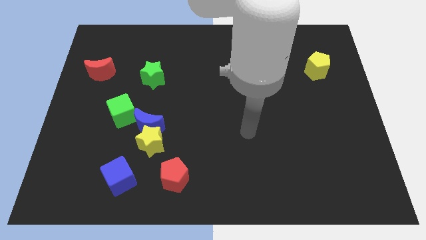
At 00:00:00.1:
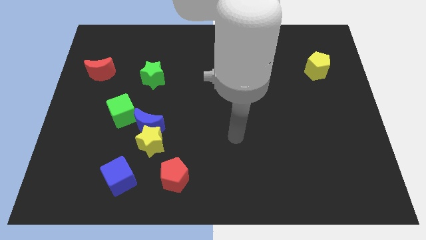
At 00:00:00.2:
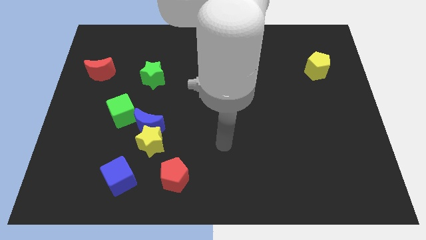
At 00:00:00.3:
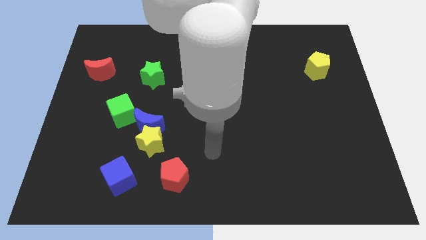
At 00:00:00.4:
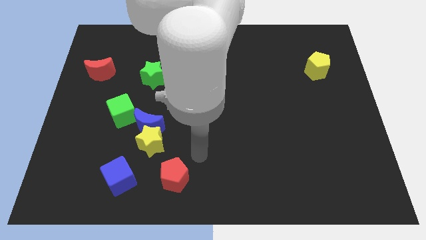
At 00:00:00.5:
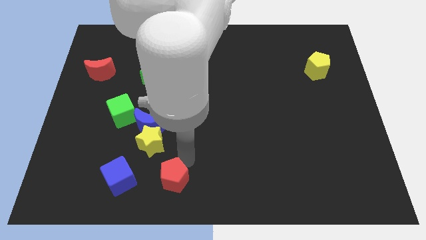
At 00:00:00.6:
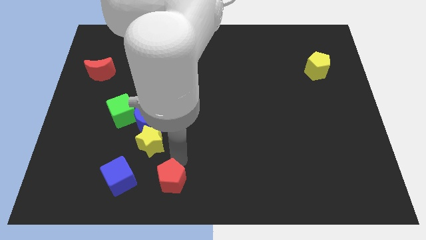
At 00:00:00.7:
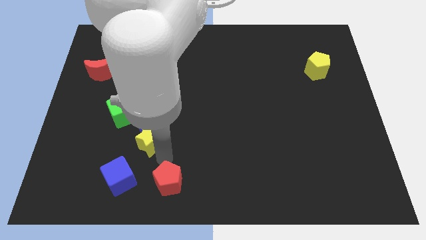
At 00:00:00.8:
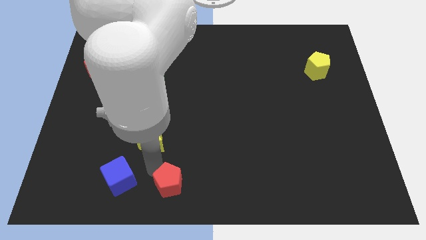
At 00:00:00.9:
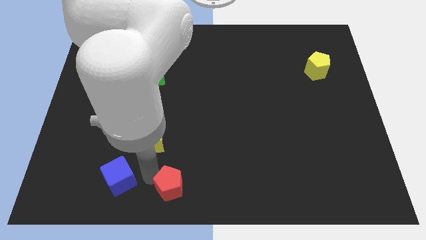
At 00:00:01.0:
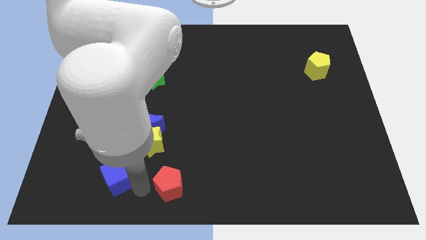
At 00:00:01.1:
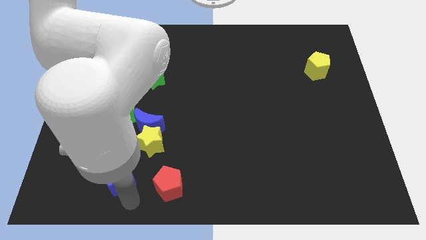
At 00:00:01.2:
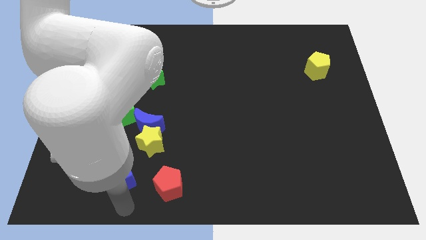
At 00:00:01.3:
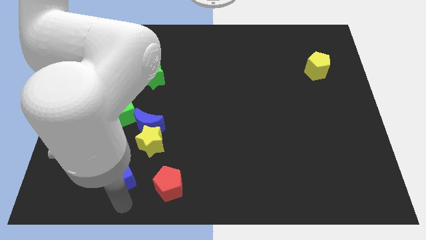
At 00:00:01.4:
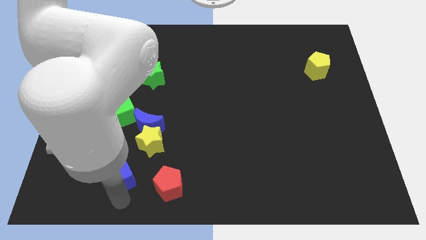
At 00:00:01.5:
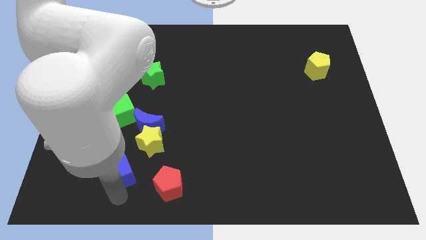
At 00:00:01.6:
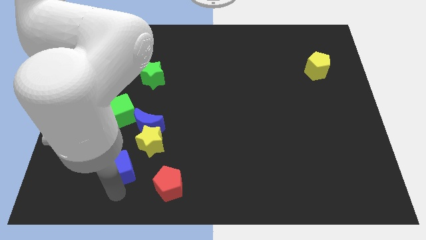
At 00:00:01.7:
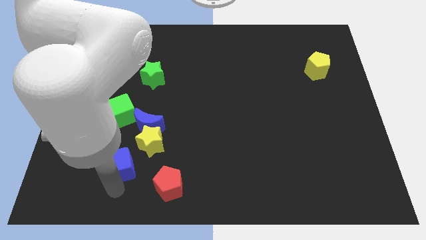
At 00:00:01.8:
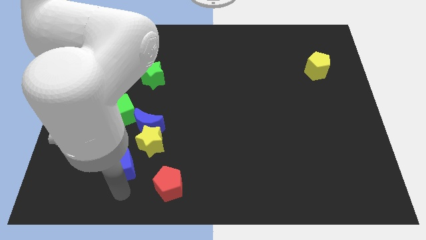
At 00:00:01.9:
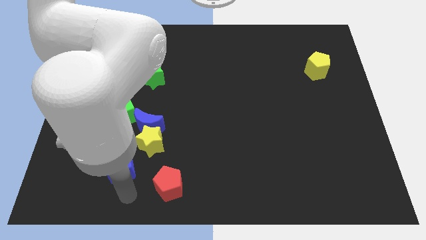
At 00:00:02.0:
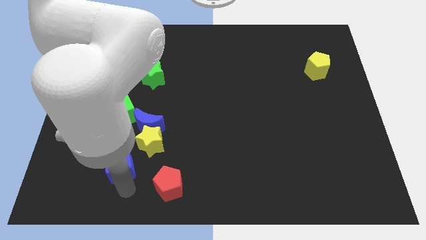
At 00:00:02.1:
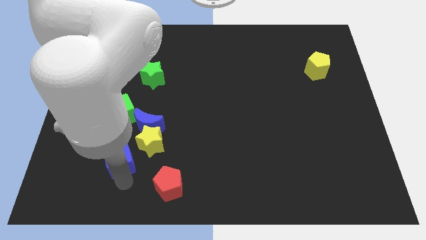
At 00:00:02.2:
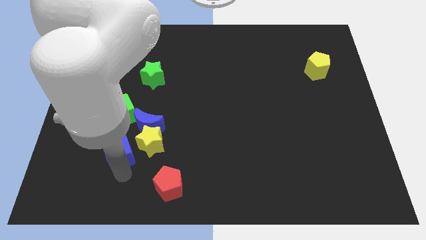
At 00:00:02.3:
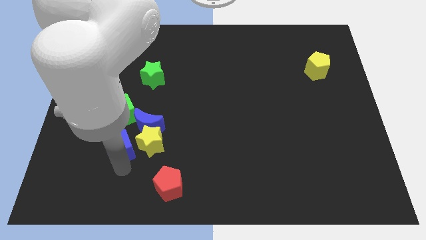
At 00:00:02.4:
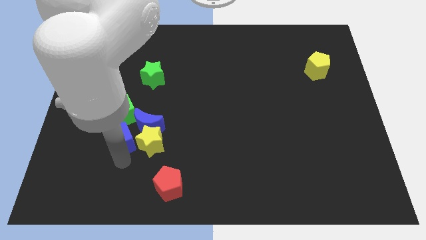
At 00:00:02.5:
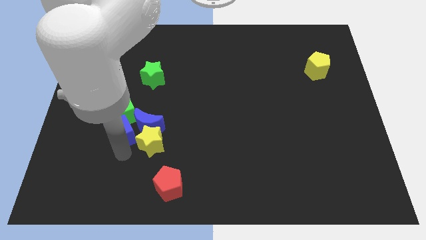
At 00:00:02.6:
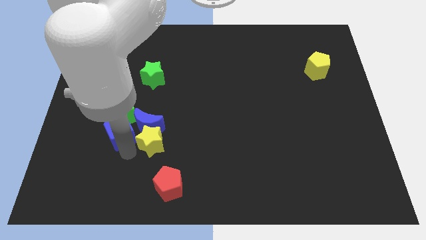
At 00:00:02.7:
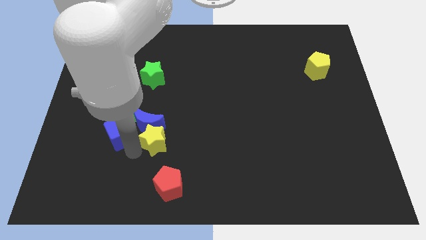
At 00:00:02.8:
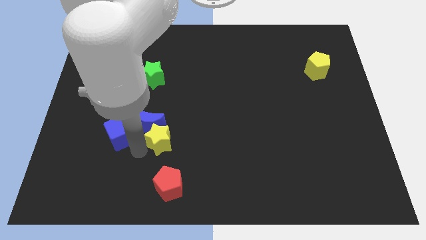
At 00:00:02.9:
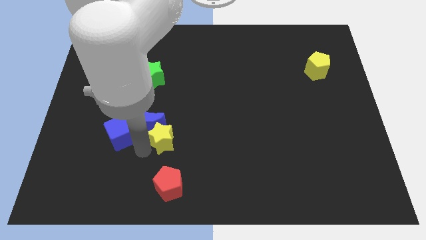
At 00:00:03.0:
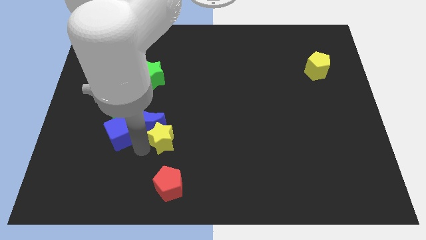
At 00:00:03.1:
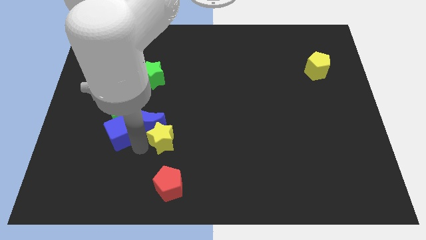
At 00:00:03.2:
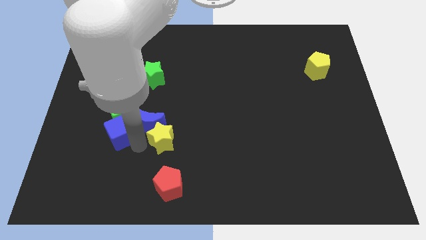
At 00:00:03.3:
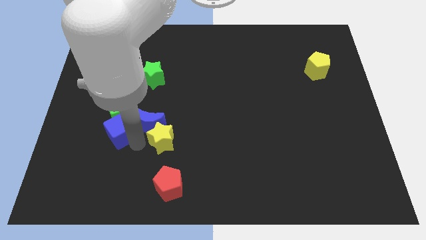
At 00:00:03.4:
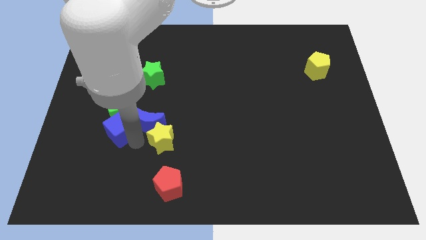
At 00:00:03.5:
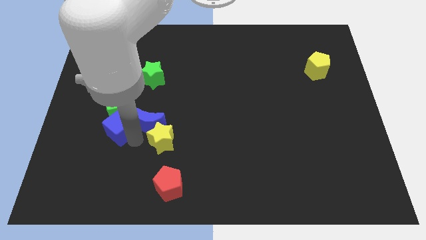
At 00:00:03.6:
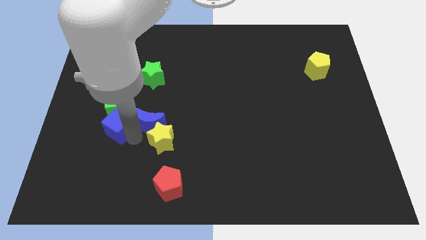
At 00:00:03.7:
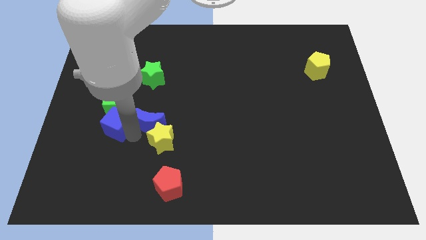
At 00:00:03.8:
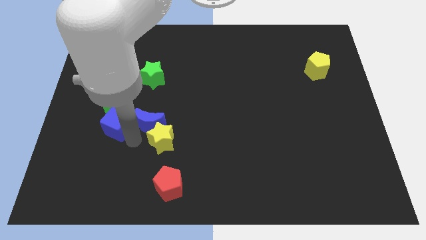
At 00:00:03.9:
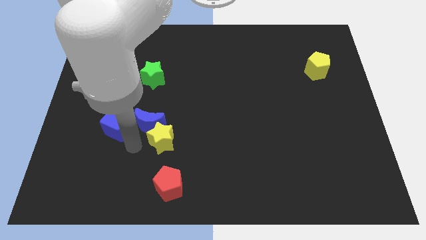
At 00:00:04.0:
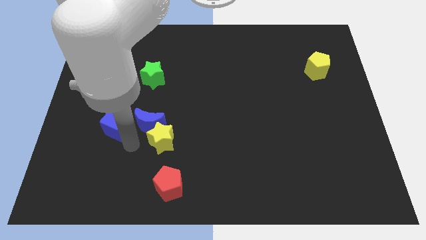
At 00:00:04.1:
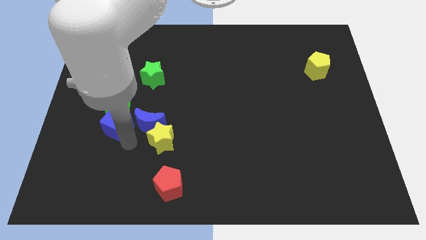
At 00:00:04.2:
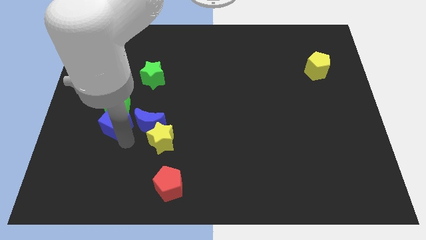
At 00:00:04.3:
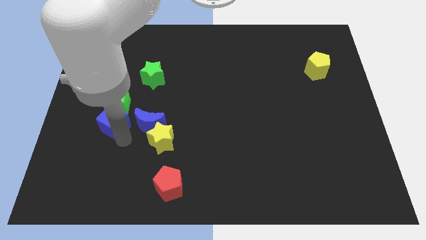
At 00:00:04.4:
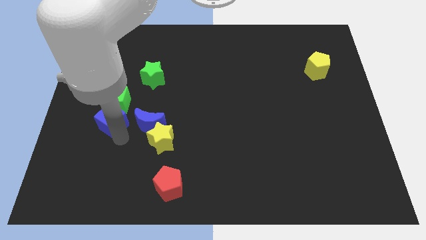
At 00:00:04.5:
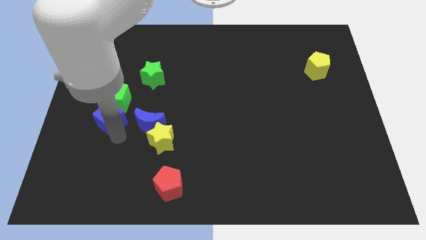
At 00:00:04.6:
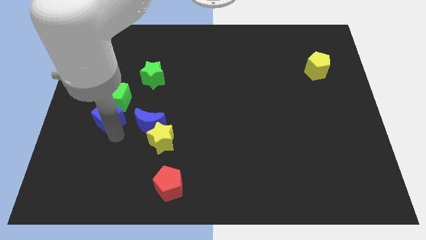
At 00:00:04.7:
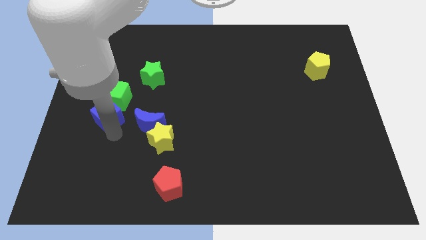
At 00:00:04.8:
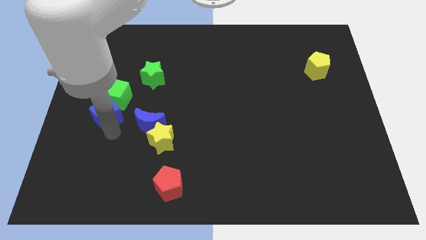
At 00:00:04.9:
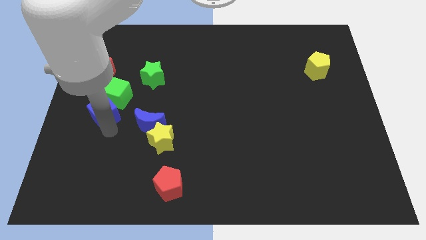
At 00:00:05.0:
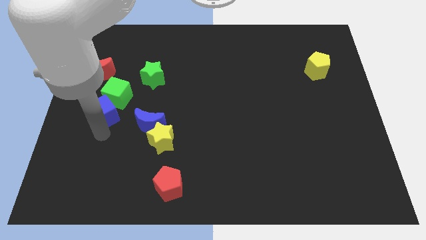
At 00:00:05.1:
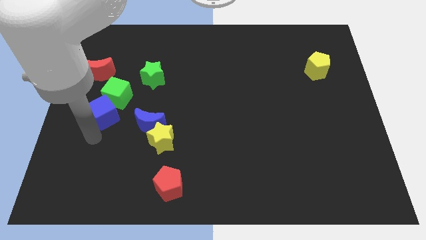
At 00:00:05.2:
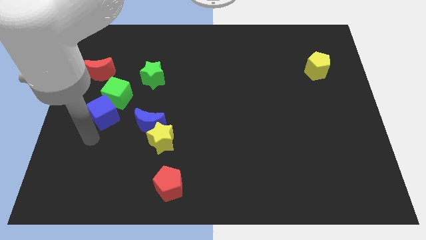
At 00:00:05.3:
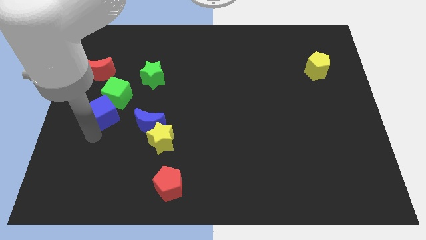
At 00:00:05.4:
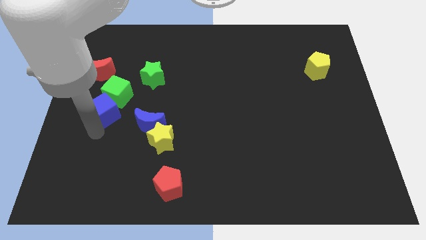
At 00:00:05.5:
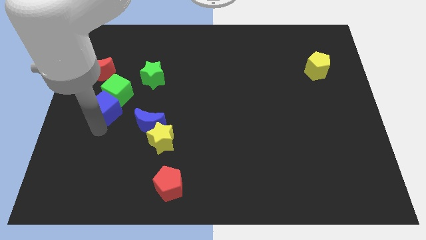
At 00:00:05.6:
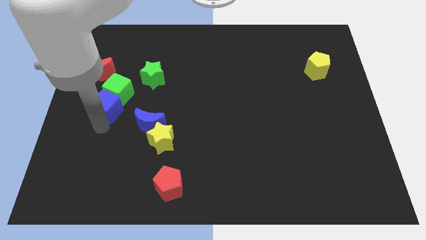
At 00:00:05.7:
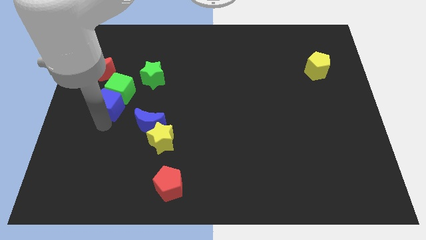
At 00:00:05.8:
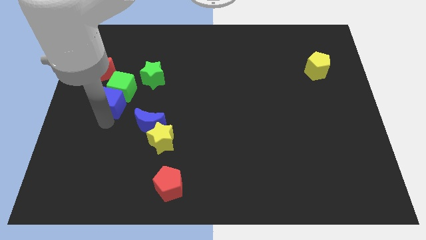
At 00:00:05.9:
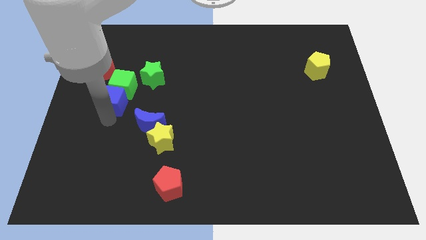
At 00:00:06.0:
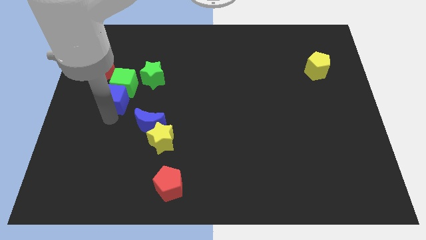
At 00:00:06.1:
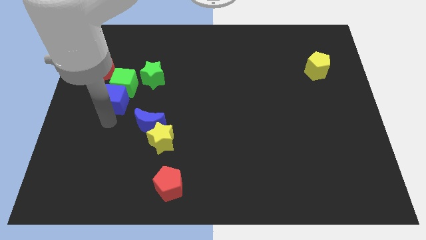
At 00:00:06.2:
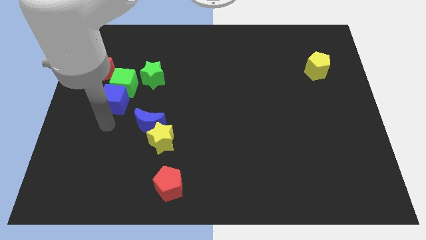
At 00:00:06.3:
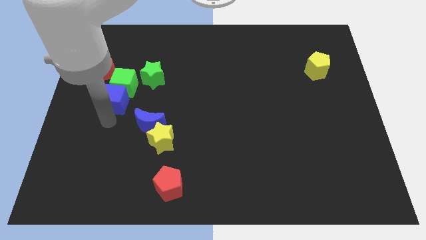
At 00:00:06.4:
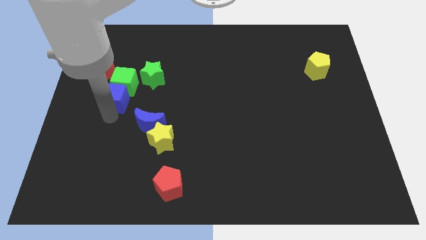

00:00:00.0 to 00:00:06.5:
slide the blue cube up

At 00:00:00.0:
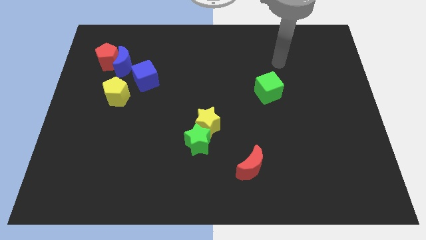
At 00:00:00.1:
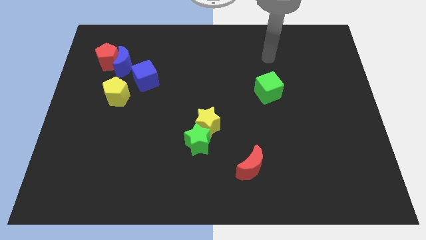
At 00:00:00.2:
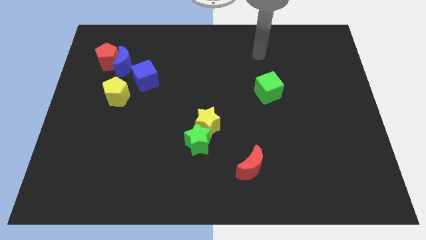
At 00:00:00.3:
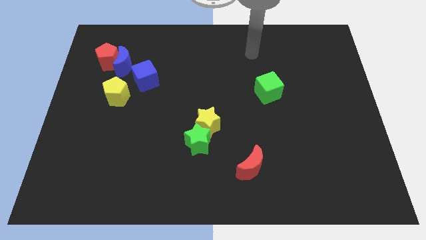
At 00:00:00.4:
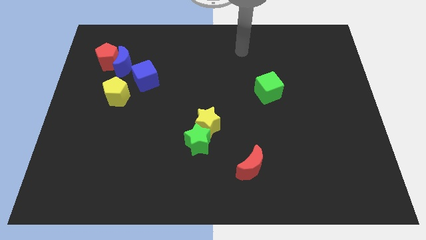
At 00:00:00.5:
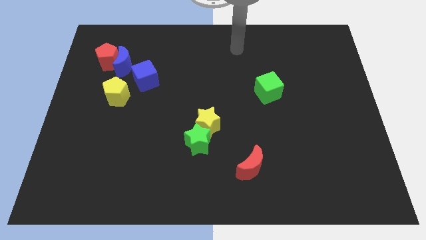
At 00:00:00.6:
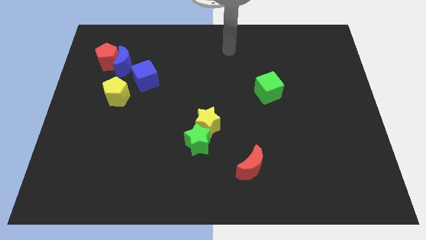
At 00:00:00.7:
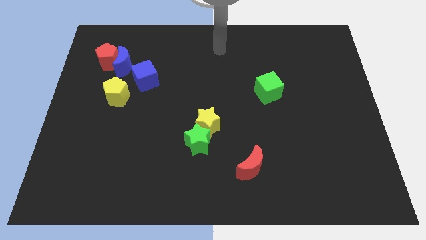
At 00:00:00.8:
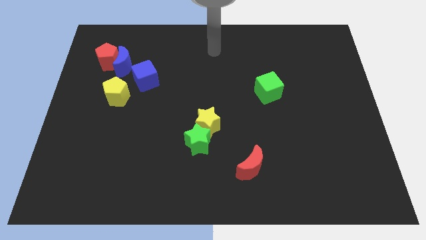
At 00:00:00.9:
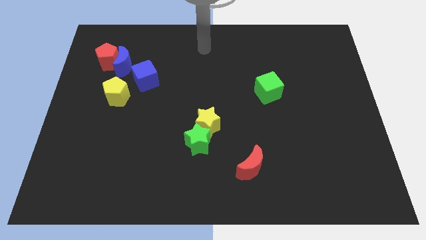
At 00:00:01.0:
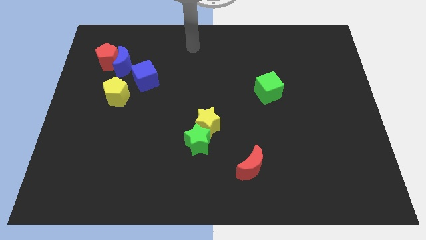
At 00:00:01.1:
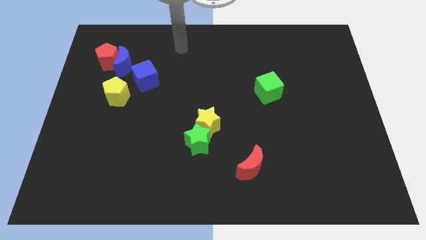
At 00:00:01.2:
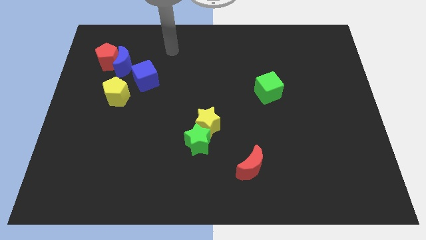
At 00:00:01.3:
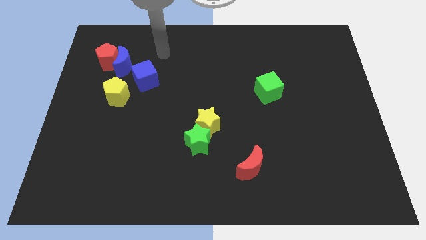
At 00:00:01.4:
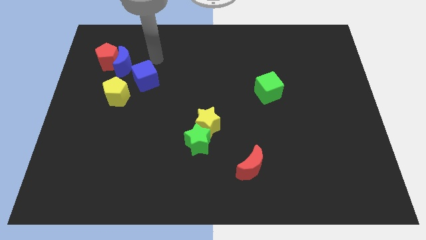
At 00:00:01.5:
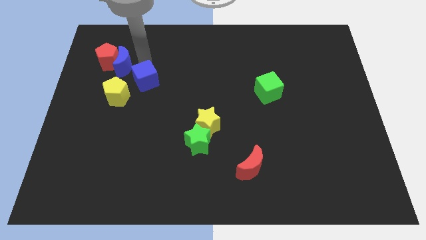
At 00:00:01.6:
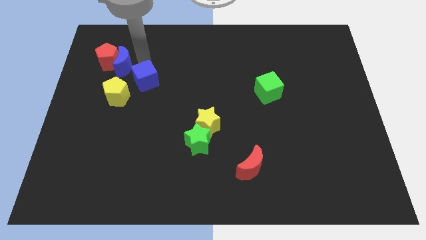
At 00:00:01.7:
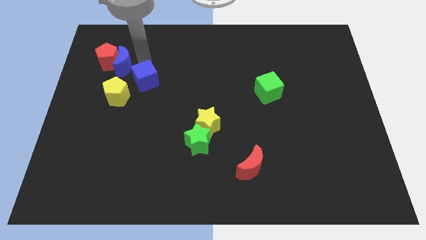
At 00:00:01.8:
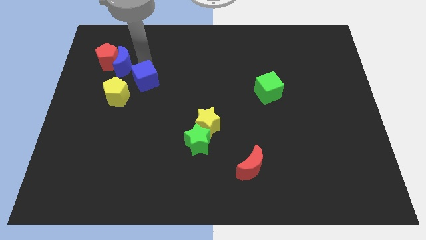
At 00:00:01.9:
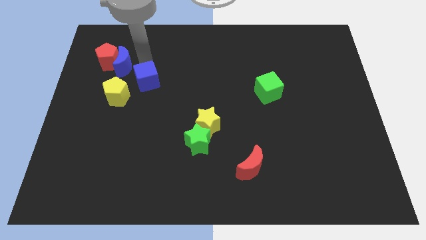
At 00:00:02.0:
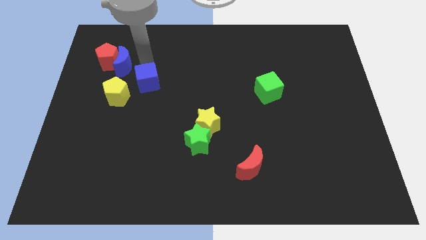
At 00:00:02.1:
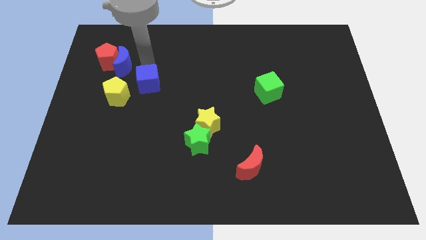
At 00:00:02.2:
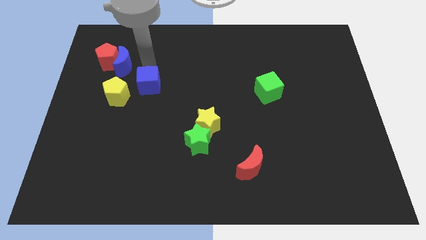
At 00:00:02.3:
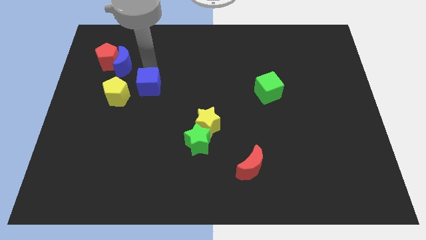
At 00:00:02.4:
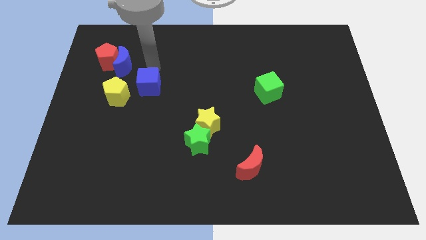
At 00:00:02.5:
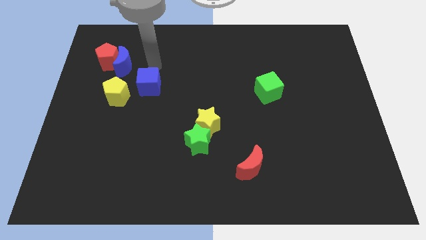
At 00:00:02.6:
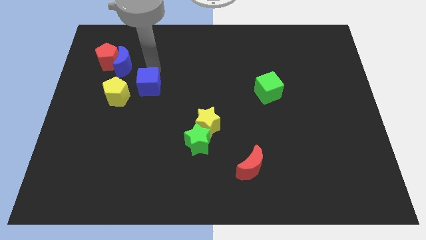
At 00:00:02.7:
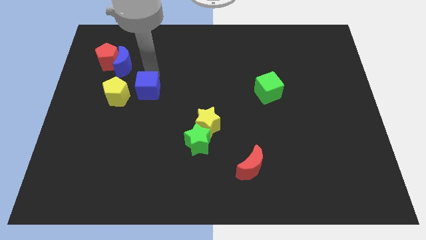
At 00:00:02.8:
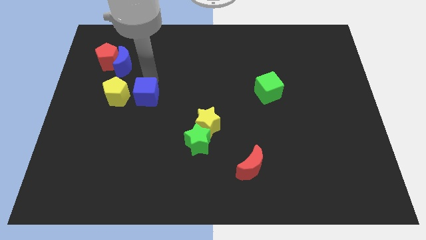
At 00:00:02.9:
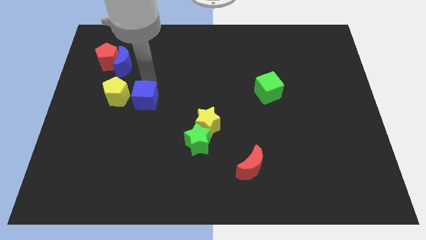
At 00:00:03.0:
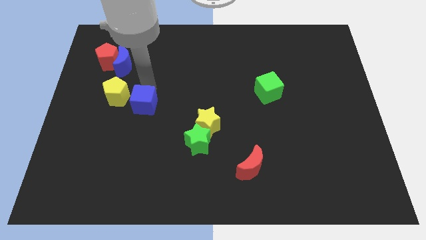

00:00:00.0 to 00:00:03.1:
push the blue cube a bit downwards
